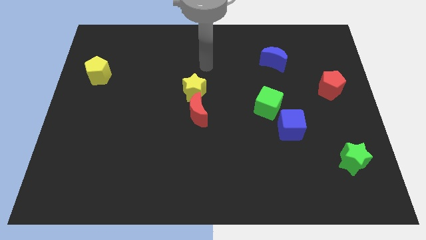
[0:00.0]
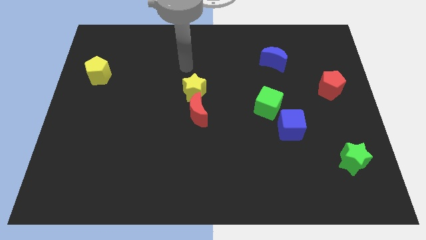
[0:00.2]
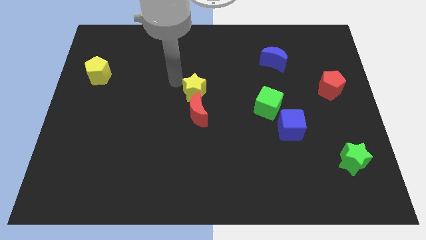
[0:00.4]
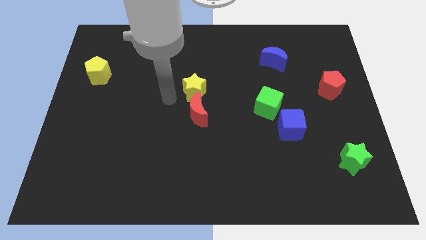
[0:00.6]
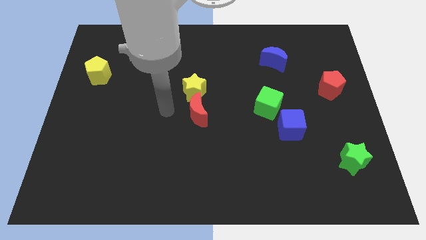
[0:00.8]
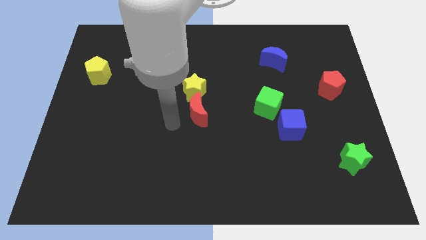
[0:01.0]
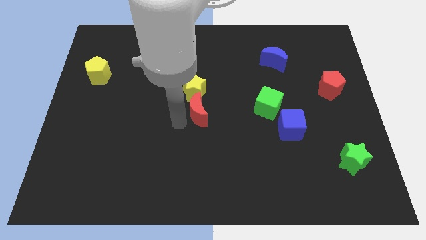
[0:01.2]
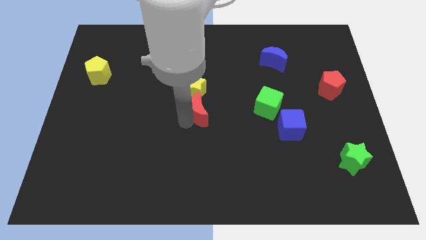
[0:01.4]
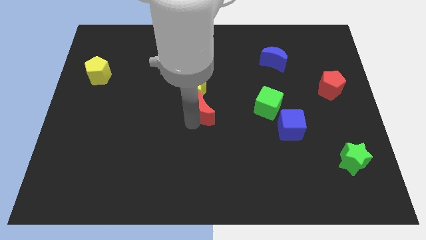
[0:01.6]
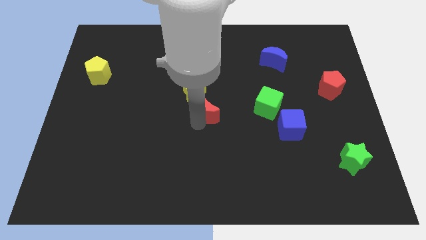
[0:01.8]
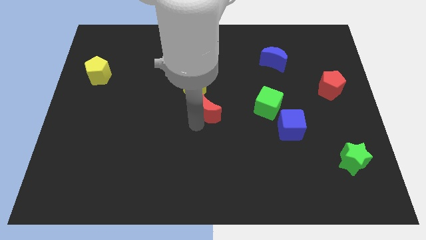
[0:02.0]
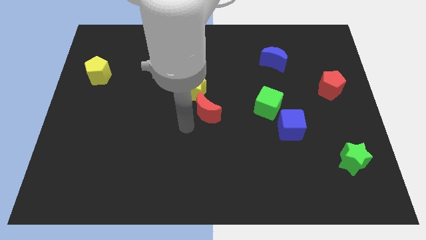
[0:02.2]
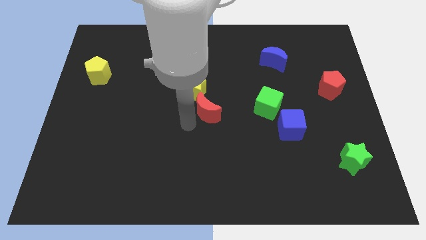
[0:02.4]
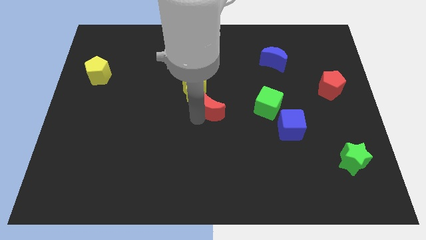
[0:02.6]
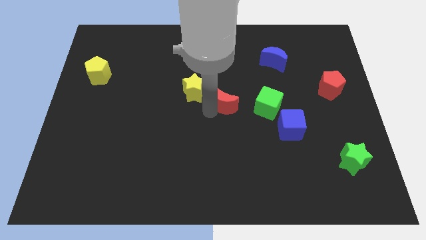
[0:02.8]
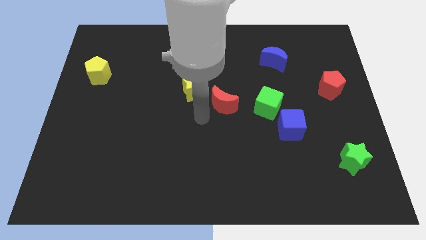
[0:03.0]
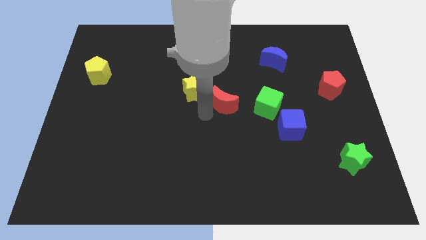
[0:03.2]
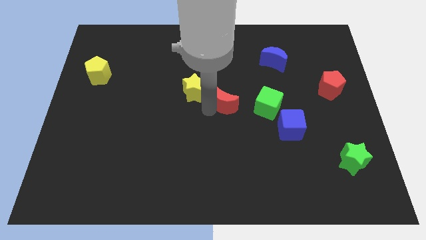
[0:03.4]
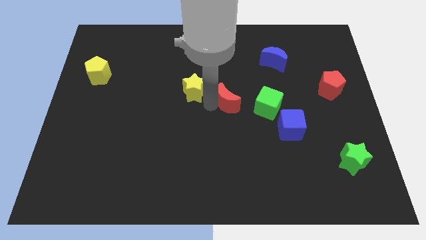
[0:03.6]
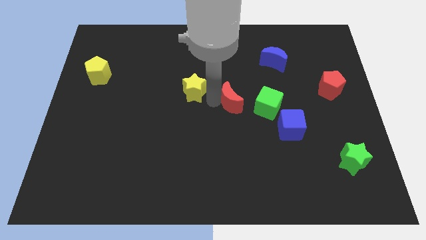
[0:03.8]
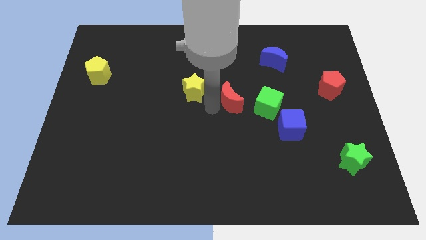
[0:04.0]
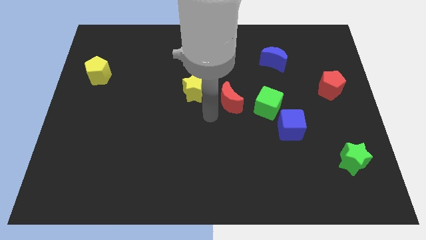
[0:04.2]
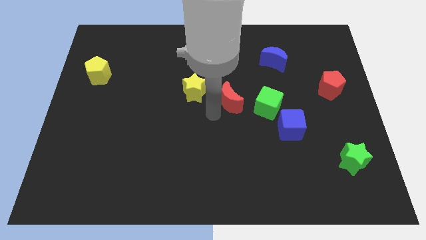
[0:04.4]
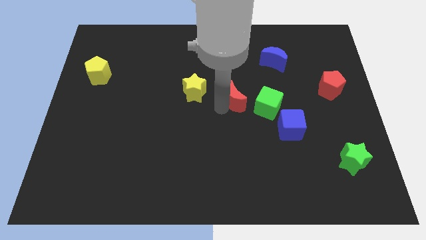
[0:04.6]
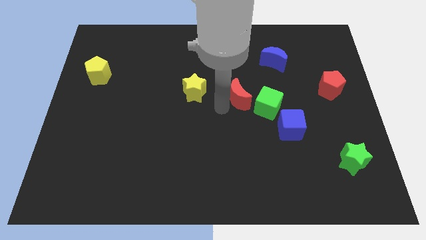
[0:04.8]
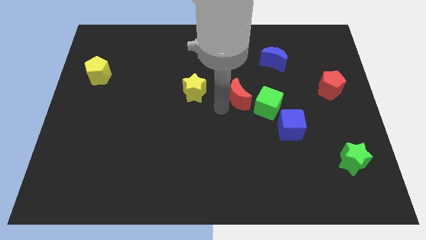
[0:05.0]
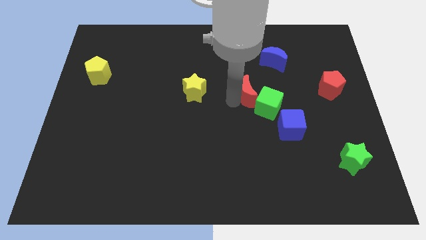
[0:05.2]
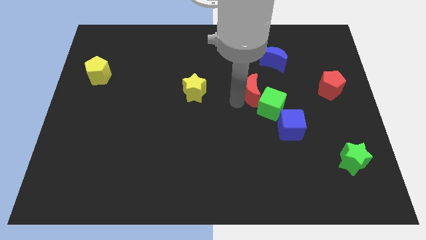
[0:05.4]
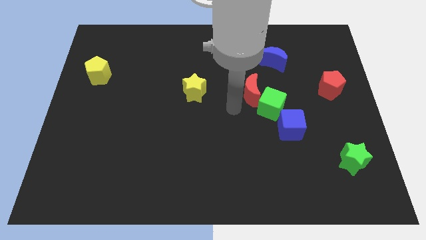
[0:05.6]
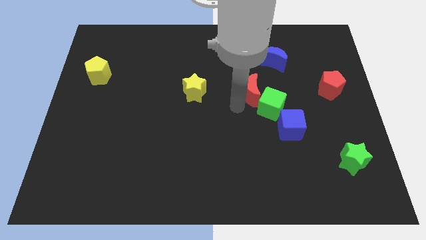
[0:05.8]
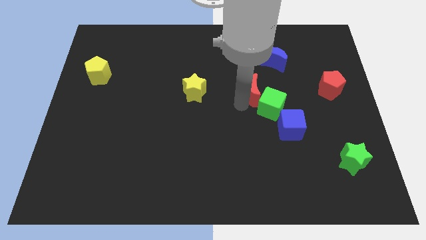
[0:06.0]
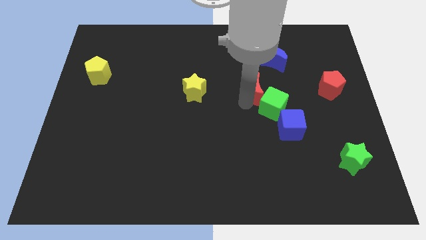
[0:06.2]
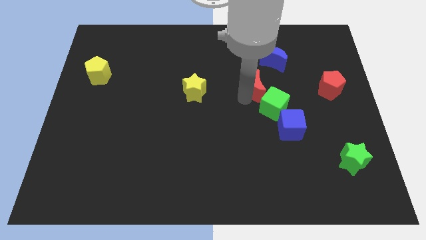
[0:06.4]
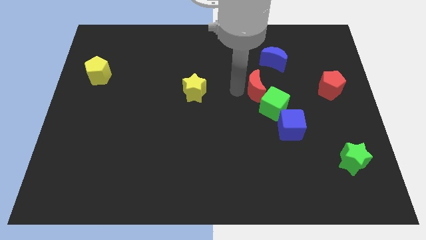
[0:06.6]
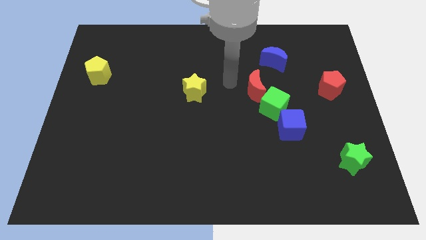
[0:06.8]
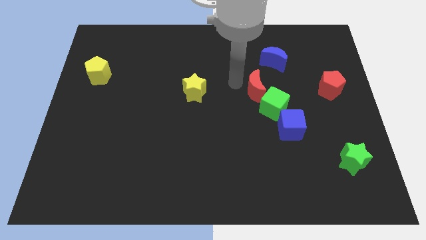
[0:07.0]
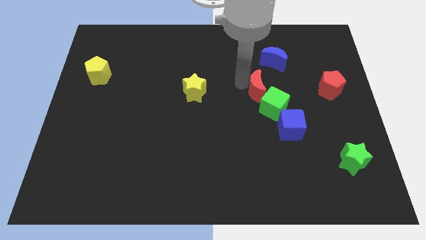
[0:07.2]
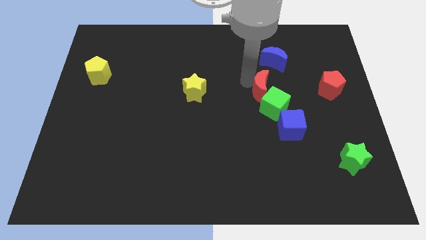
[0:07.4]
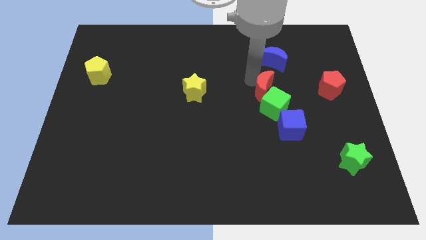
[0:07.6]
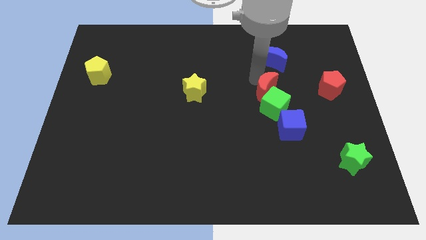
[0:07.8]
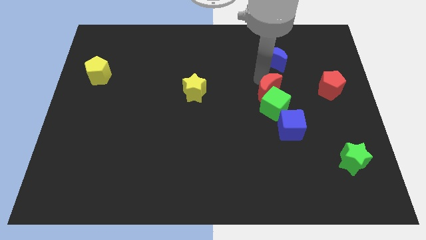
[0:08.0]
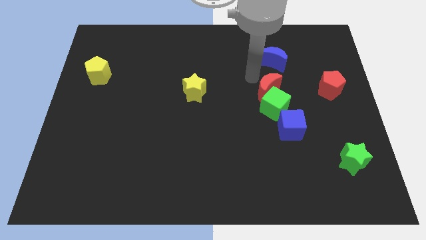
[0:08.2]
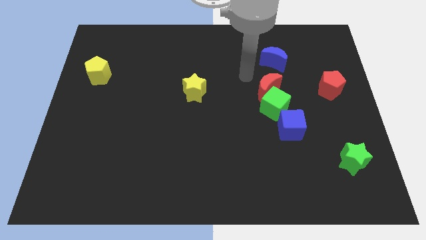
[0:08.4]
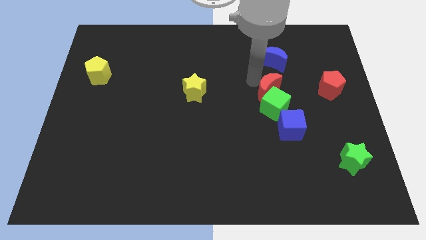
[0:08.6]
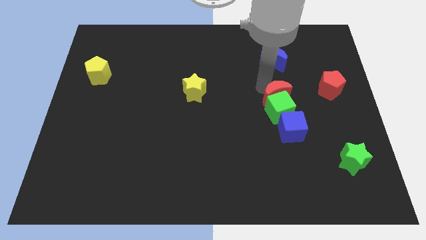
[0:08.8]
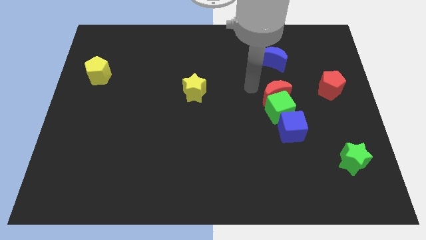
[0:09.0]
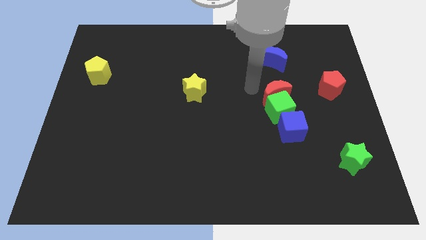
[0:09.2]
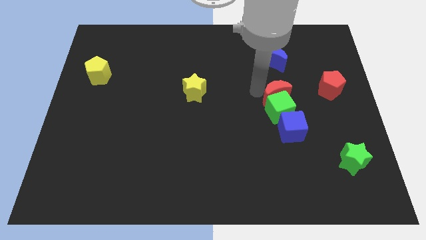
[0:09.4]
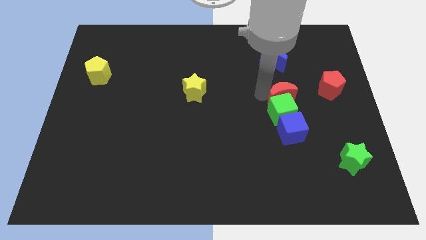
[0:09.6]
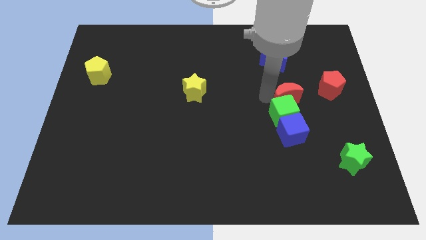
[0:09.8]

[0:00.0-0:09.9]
push the red moon right

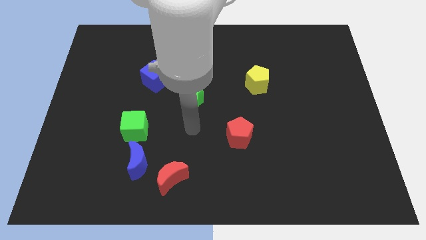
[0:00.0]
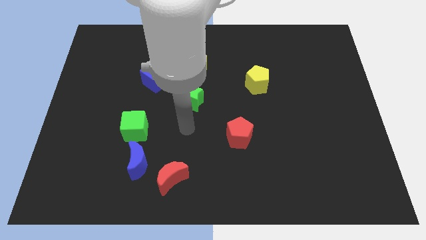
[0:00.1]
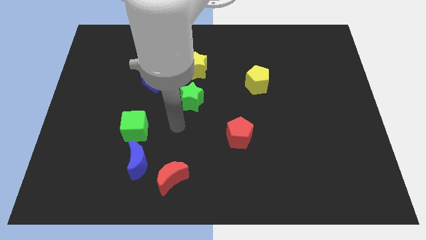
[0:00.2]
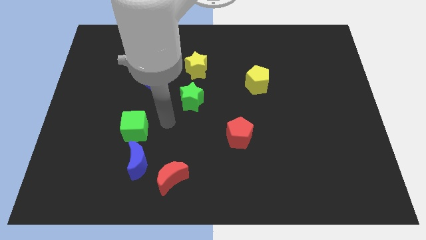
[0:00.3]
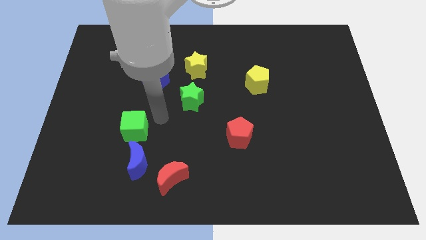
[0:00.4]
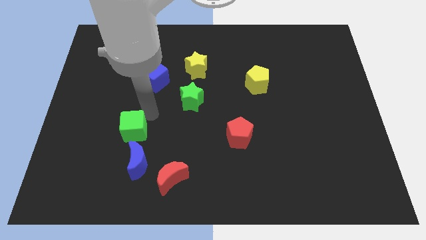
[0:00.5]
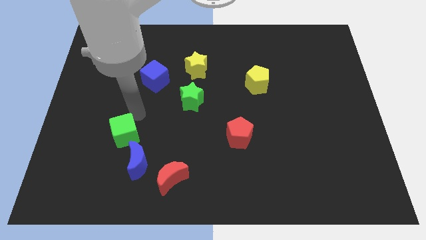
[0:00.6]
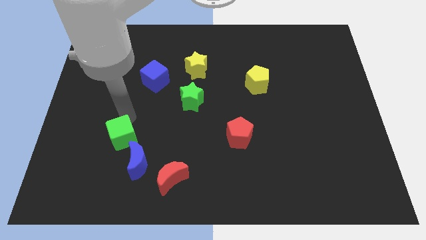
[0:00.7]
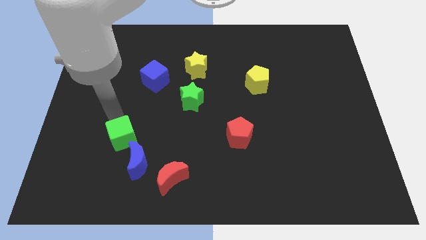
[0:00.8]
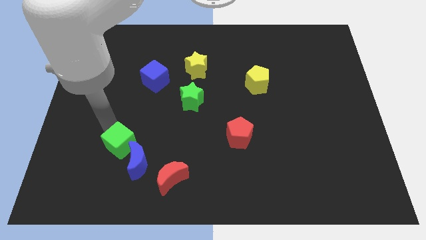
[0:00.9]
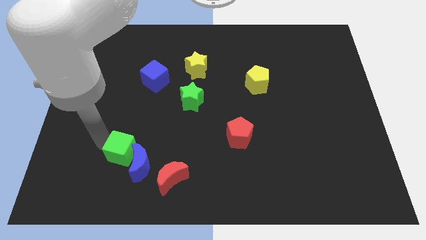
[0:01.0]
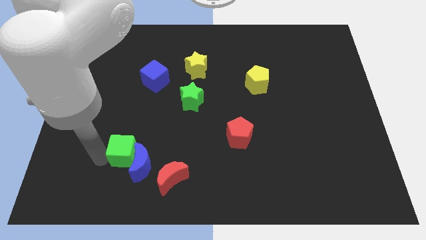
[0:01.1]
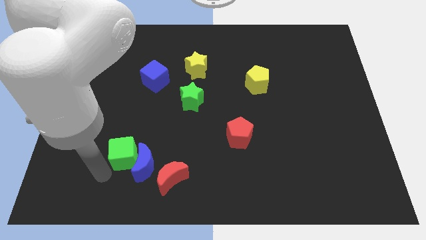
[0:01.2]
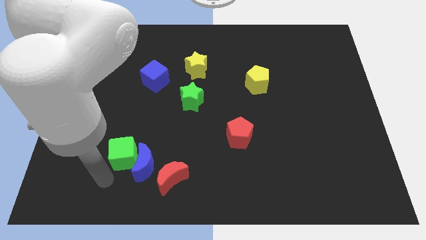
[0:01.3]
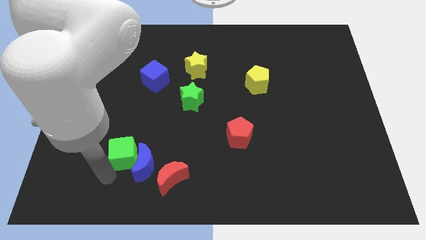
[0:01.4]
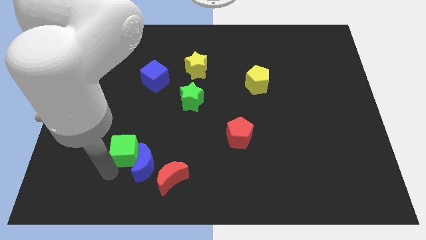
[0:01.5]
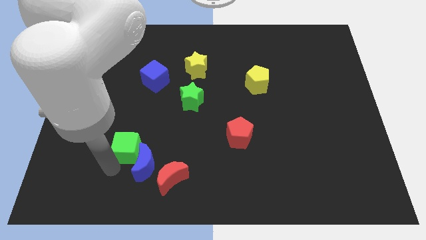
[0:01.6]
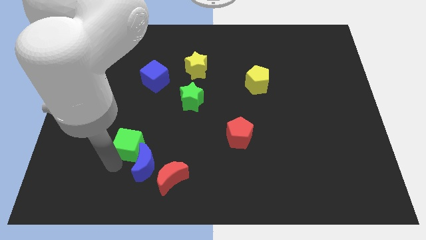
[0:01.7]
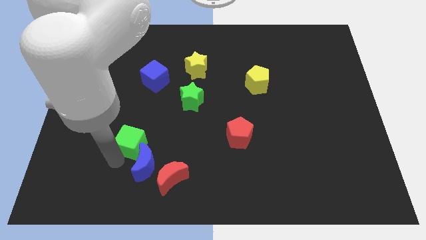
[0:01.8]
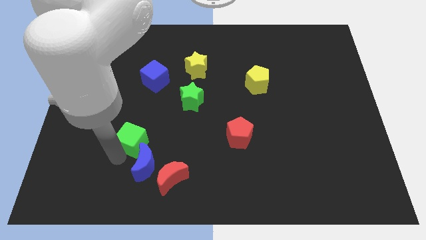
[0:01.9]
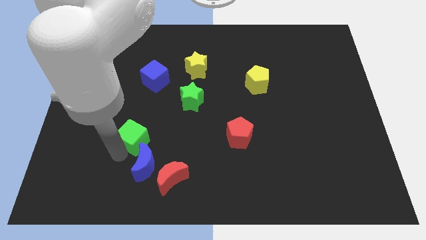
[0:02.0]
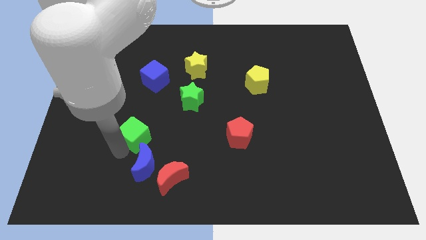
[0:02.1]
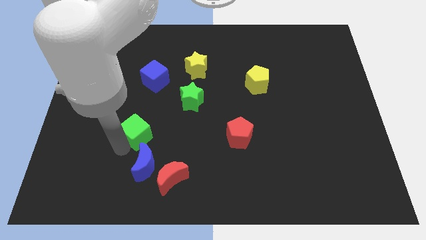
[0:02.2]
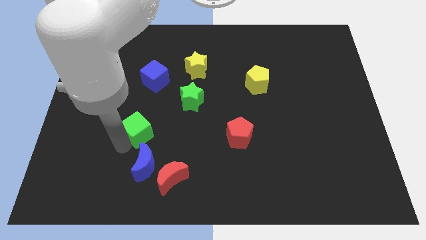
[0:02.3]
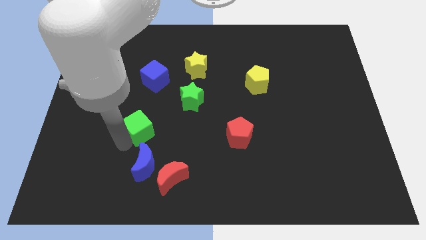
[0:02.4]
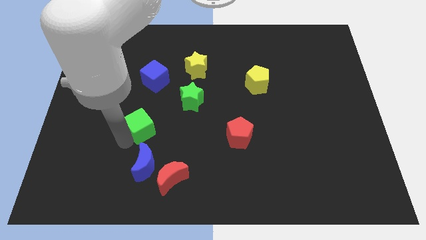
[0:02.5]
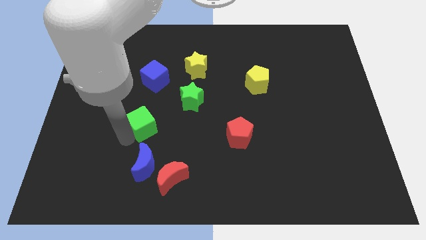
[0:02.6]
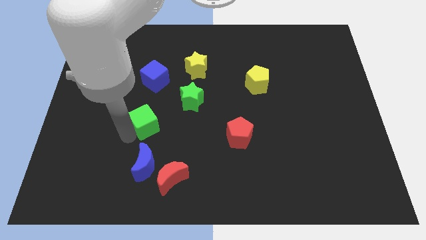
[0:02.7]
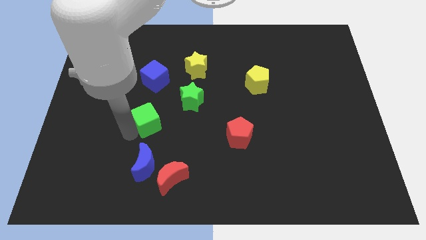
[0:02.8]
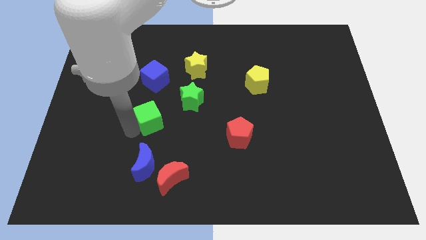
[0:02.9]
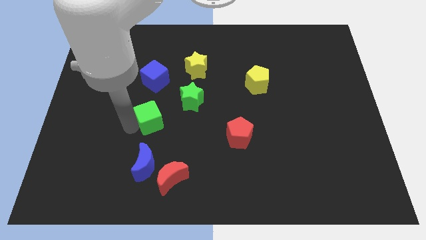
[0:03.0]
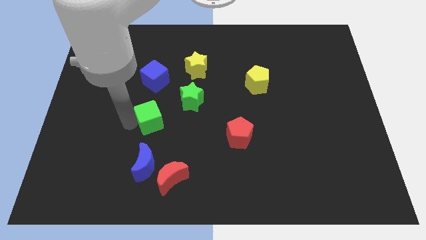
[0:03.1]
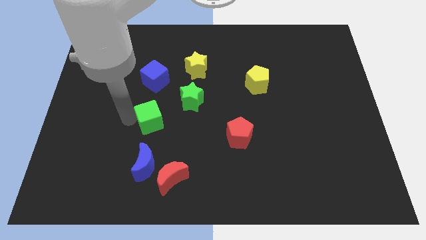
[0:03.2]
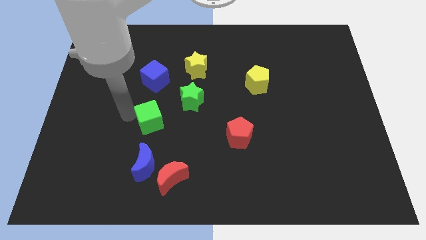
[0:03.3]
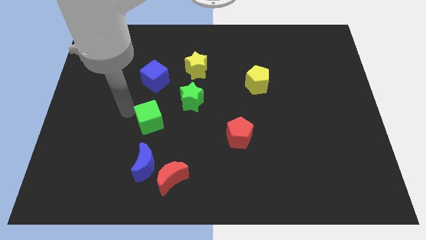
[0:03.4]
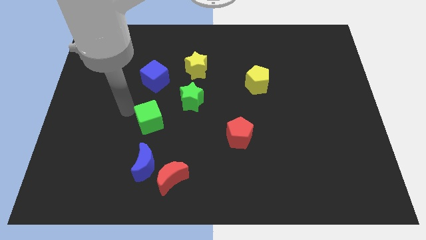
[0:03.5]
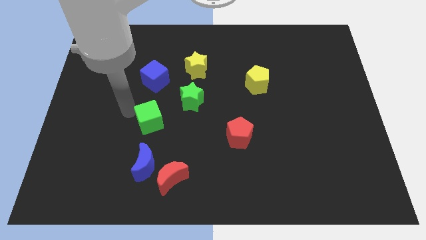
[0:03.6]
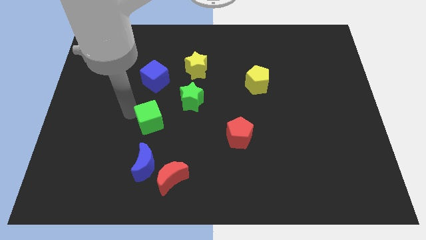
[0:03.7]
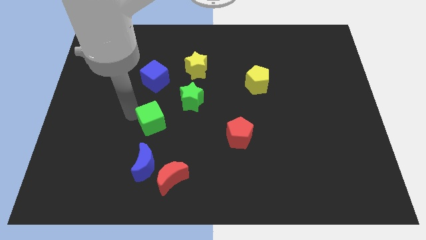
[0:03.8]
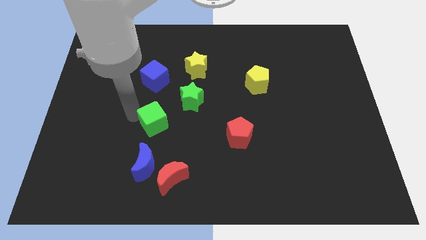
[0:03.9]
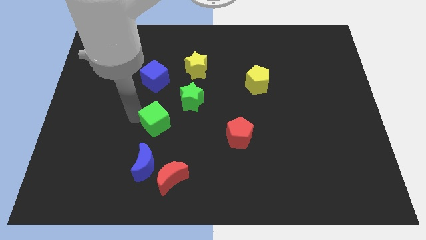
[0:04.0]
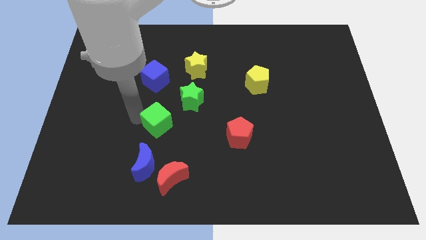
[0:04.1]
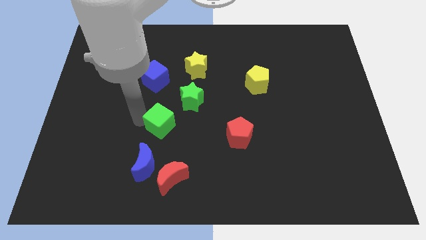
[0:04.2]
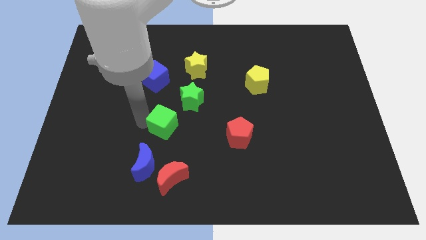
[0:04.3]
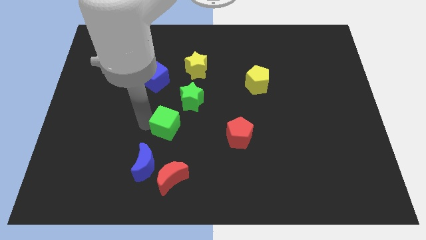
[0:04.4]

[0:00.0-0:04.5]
move the green cube right a little
